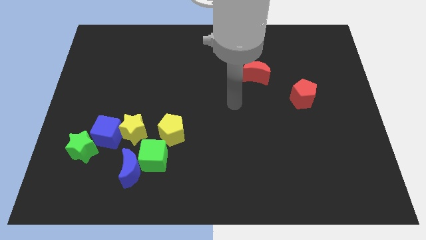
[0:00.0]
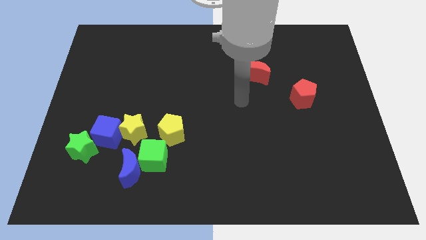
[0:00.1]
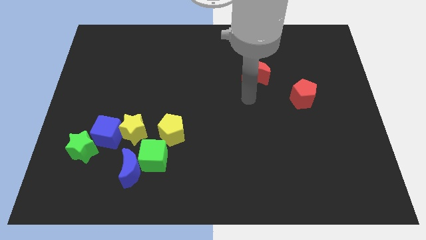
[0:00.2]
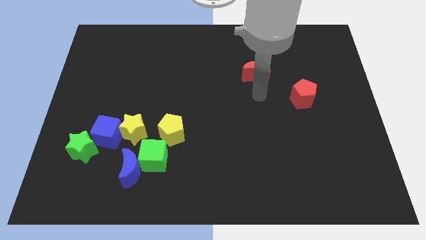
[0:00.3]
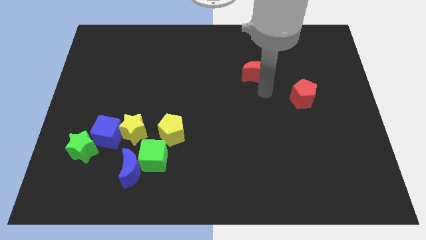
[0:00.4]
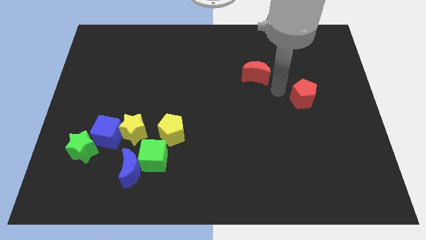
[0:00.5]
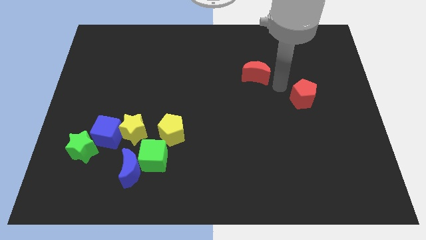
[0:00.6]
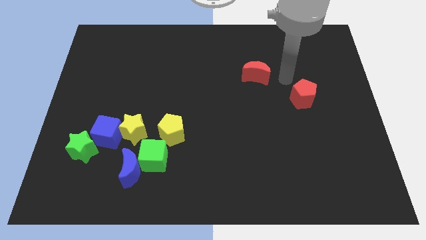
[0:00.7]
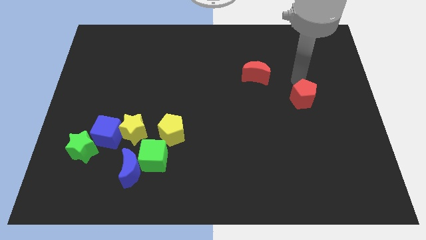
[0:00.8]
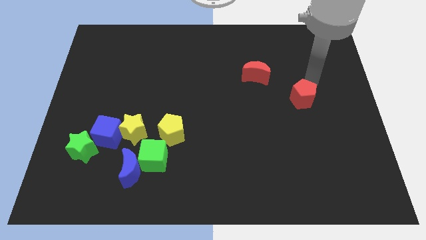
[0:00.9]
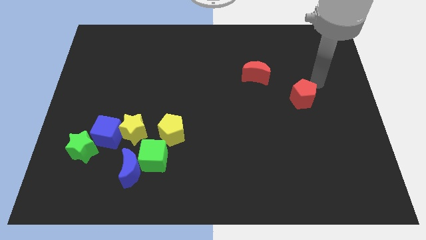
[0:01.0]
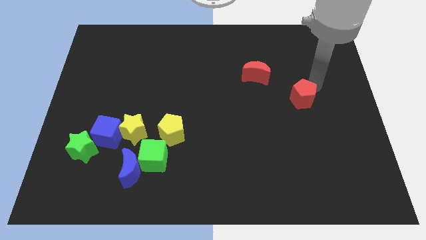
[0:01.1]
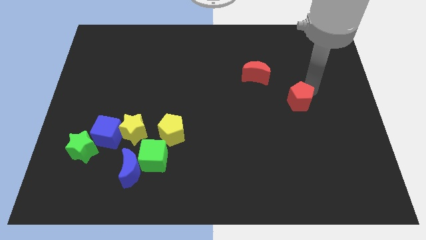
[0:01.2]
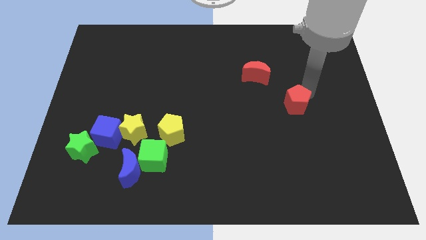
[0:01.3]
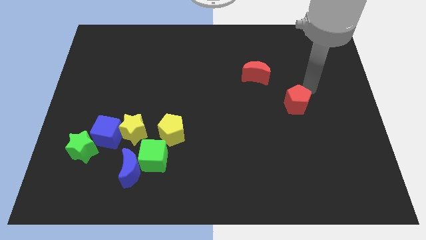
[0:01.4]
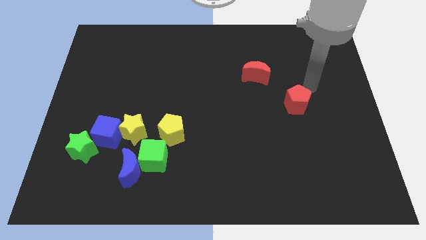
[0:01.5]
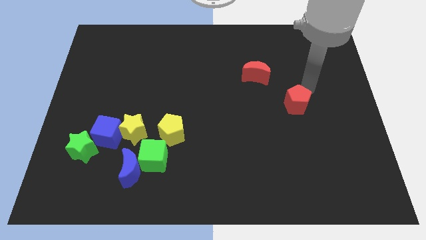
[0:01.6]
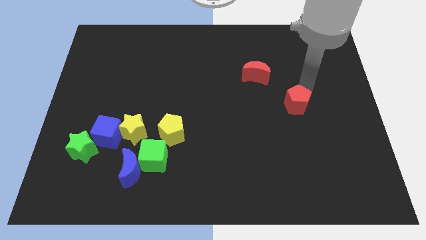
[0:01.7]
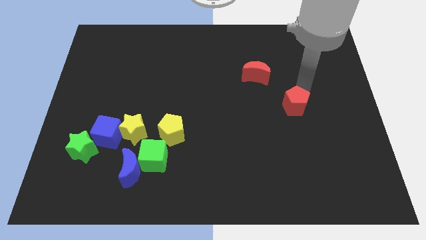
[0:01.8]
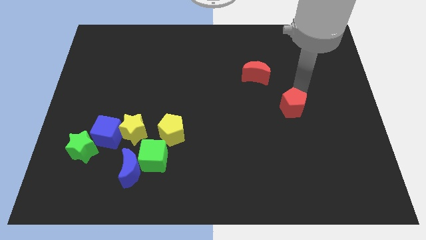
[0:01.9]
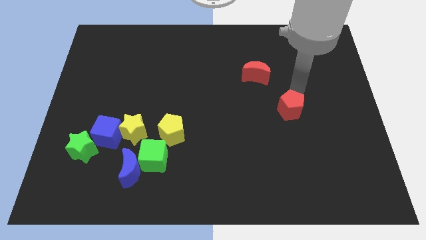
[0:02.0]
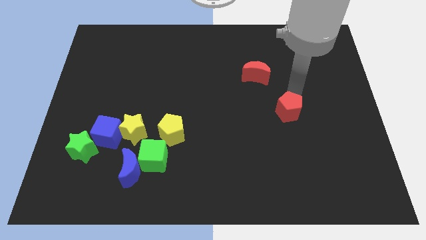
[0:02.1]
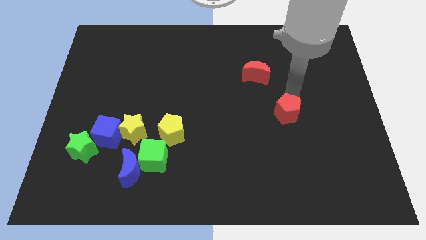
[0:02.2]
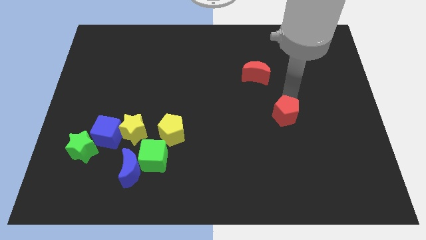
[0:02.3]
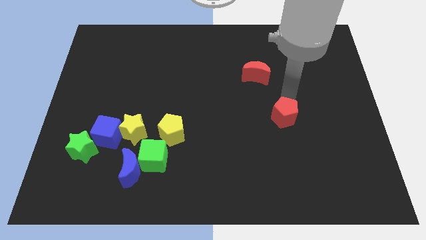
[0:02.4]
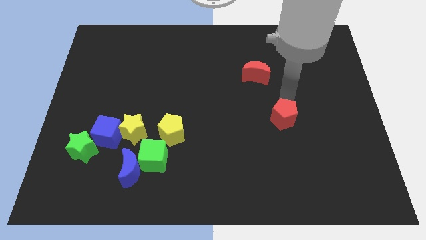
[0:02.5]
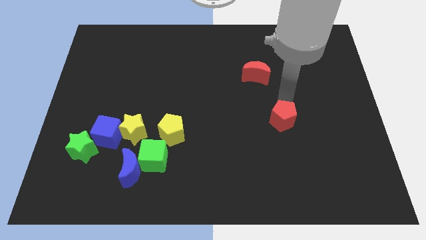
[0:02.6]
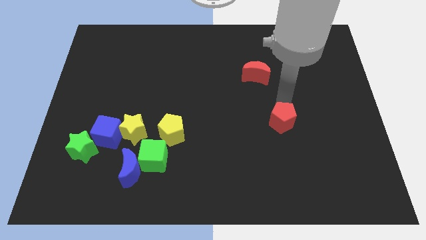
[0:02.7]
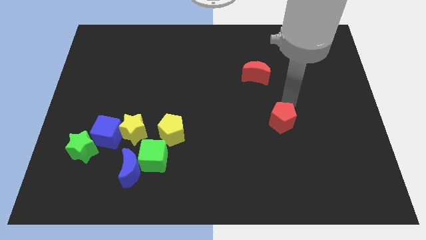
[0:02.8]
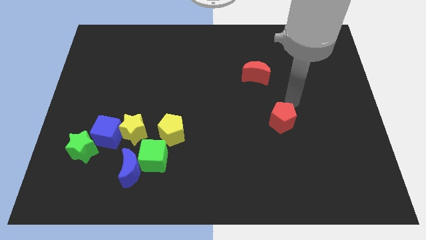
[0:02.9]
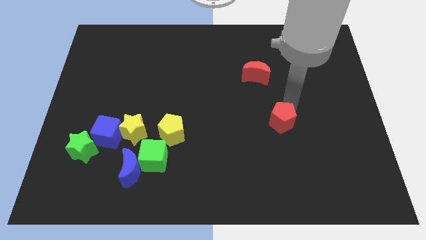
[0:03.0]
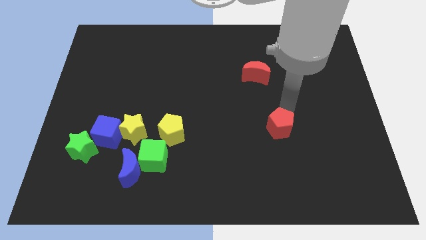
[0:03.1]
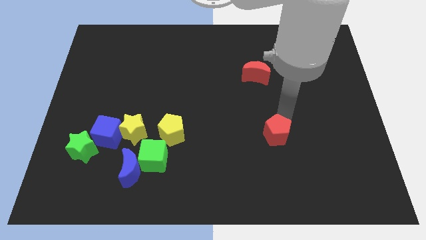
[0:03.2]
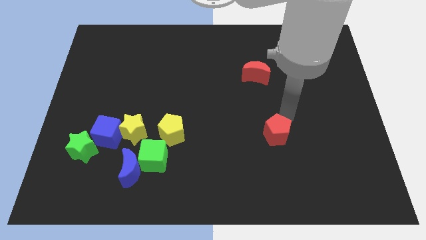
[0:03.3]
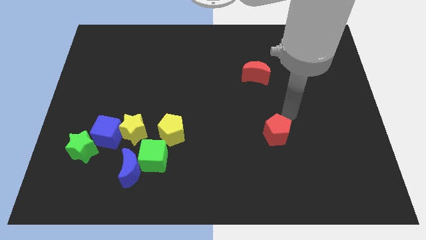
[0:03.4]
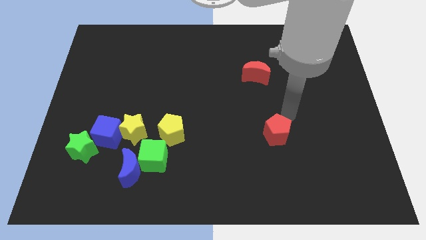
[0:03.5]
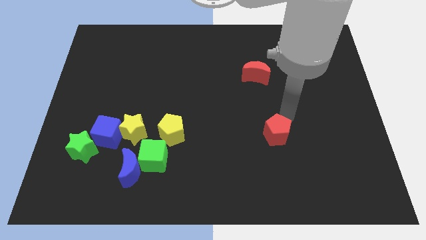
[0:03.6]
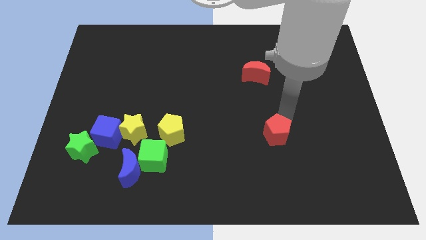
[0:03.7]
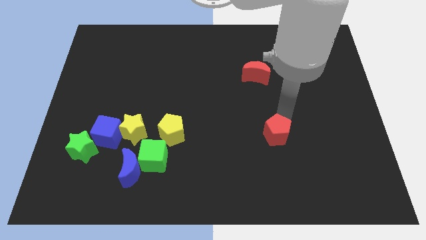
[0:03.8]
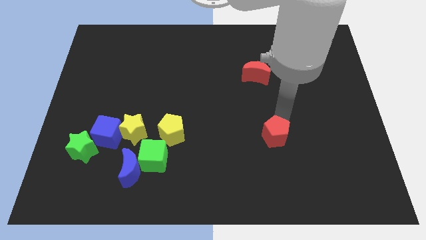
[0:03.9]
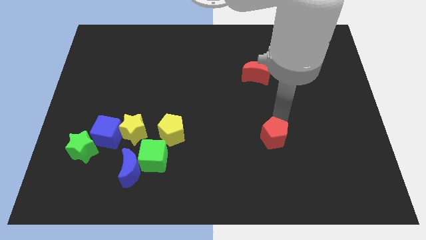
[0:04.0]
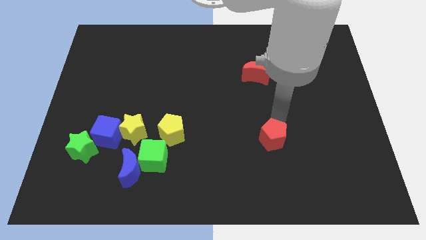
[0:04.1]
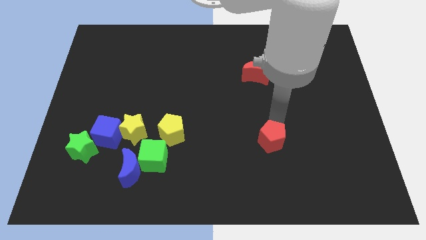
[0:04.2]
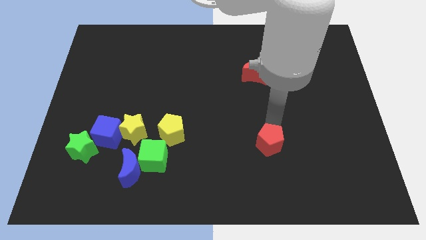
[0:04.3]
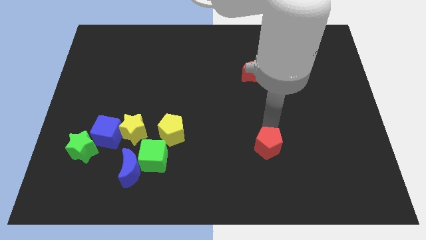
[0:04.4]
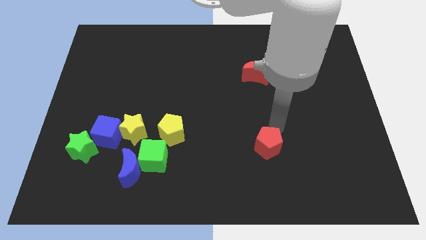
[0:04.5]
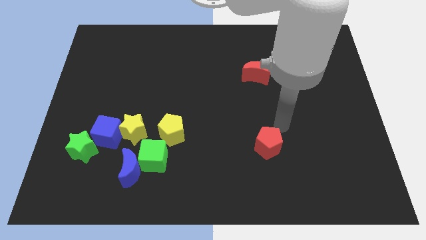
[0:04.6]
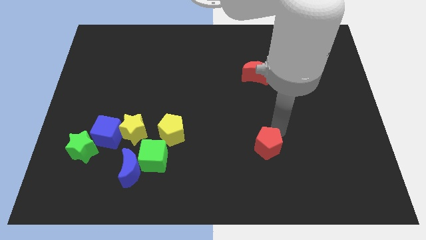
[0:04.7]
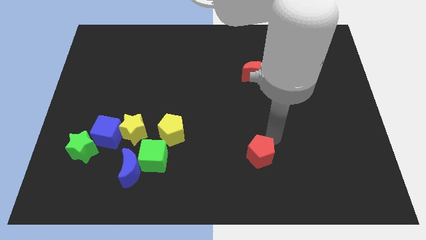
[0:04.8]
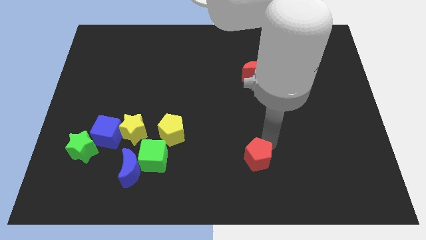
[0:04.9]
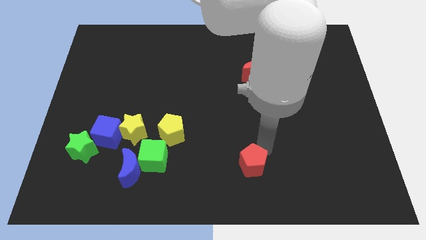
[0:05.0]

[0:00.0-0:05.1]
push the red pentagon to the bottom

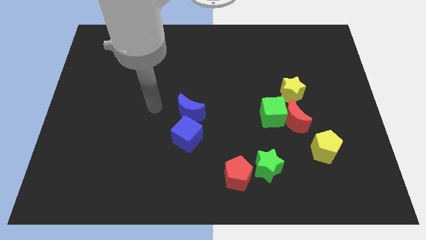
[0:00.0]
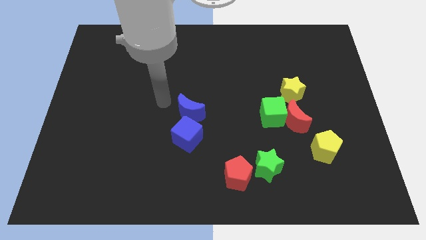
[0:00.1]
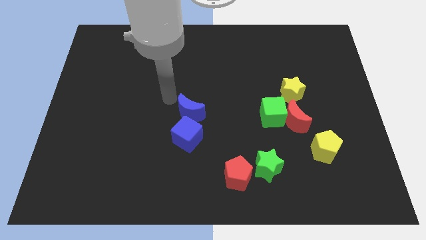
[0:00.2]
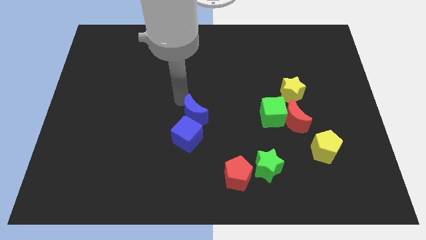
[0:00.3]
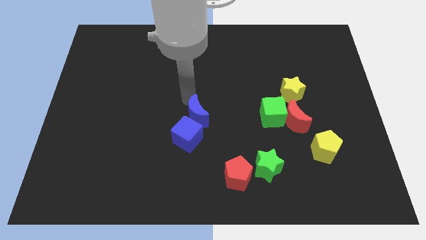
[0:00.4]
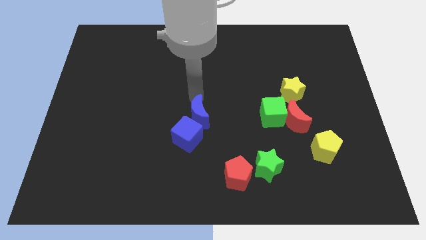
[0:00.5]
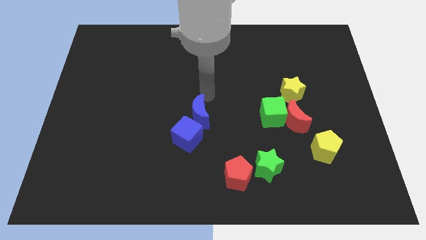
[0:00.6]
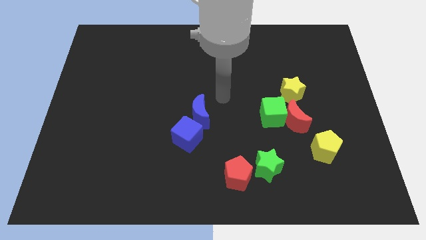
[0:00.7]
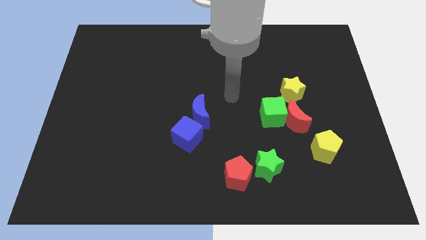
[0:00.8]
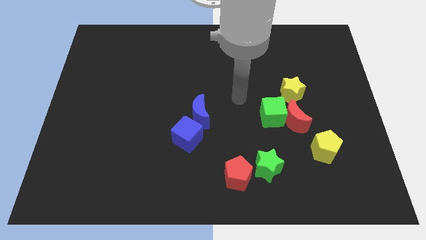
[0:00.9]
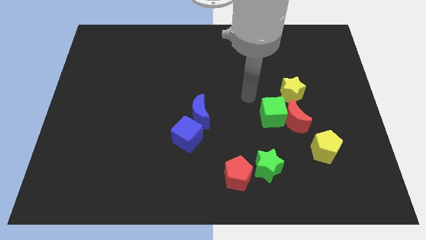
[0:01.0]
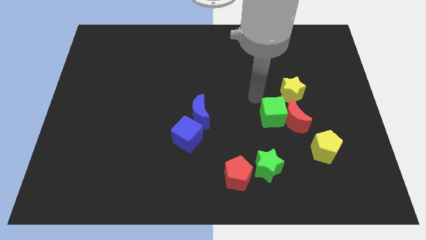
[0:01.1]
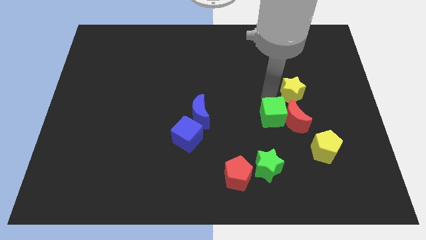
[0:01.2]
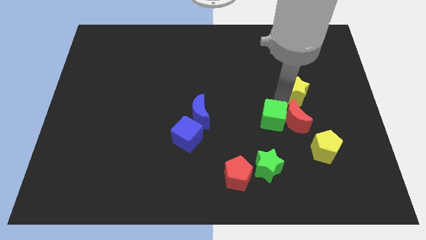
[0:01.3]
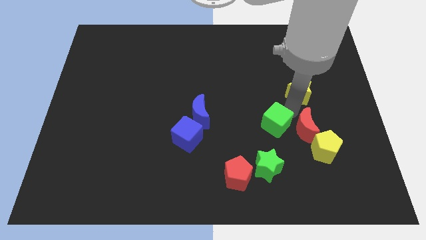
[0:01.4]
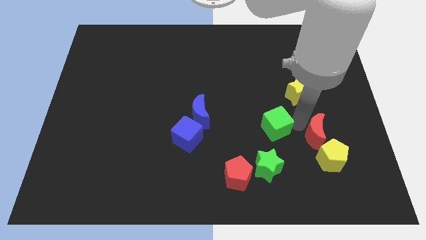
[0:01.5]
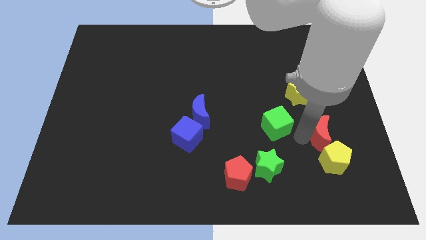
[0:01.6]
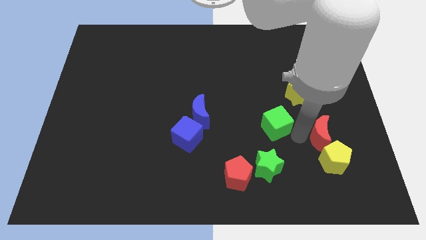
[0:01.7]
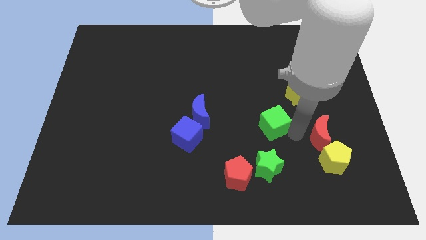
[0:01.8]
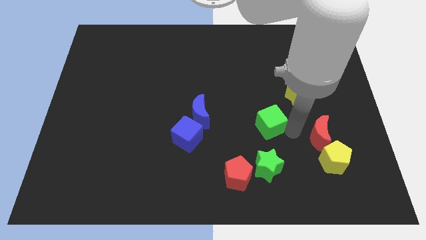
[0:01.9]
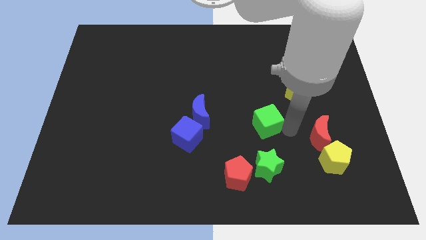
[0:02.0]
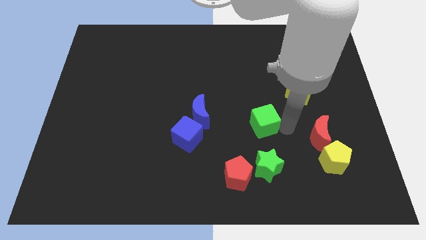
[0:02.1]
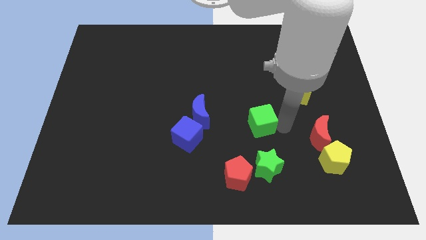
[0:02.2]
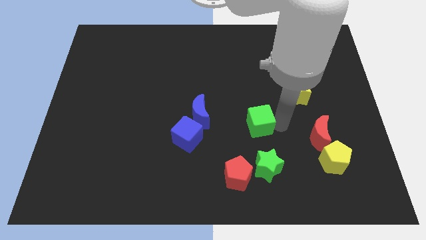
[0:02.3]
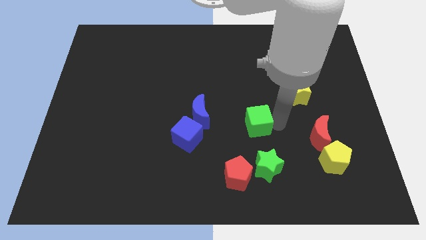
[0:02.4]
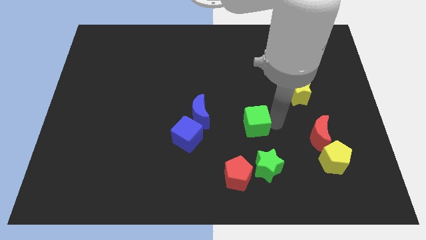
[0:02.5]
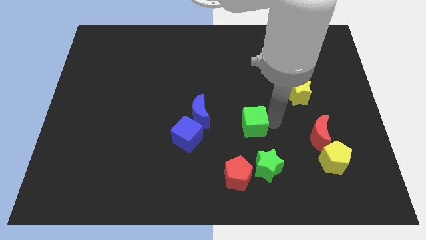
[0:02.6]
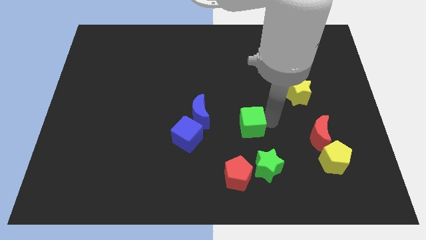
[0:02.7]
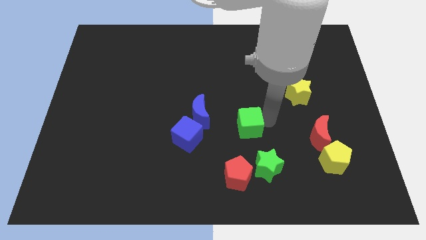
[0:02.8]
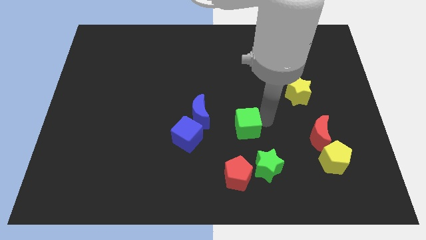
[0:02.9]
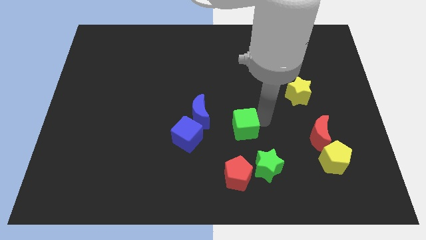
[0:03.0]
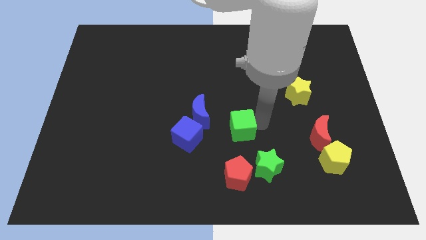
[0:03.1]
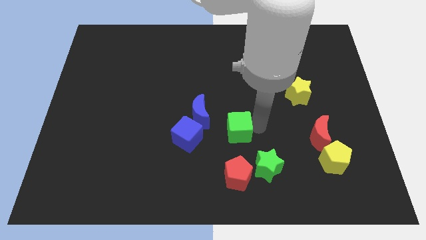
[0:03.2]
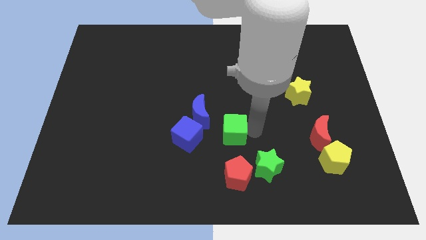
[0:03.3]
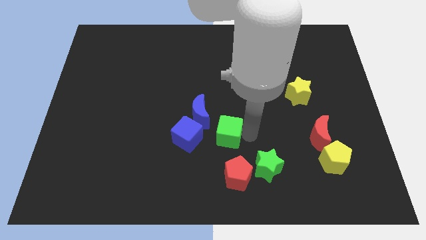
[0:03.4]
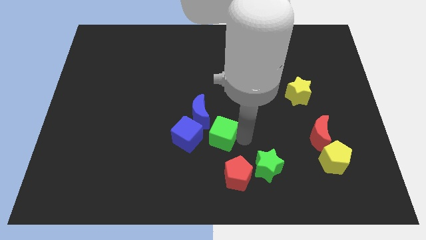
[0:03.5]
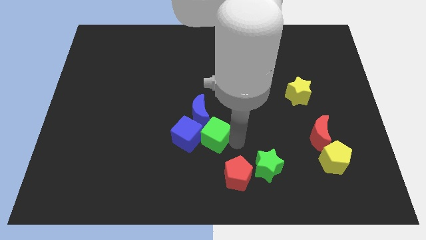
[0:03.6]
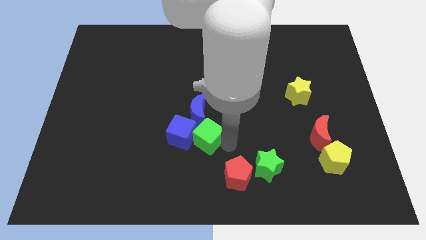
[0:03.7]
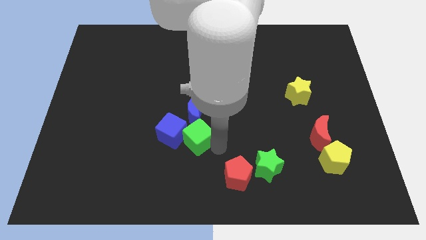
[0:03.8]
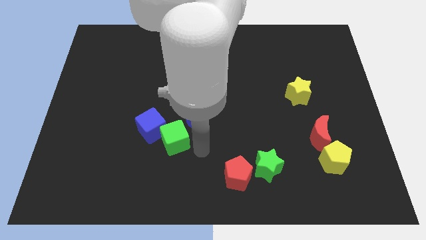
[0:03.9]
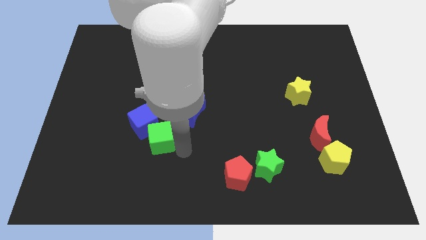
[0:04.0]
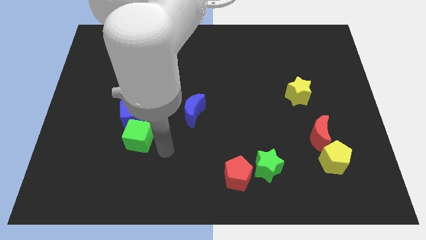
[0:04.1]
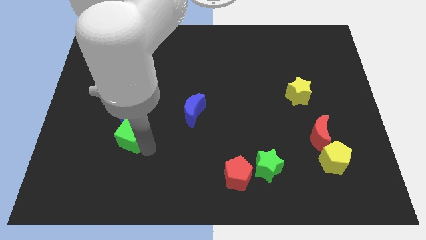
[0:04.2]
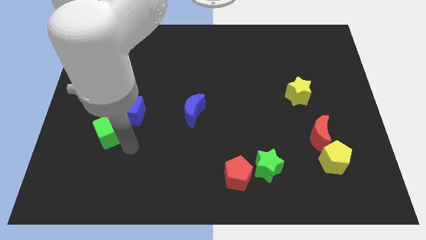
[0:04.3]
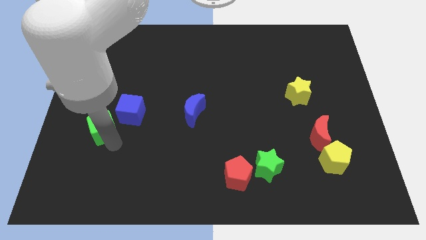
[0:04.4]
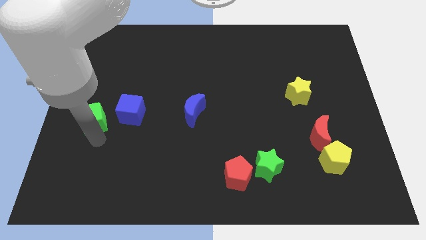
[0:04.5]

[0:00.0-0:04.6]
move the green cube to the left side
